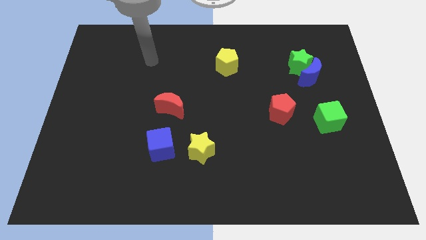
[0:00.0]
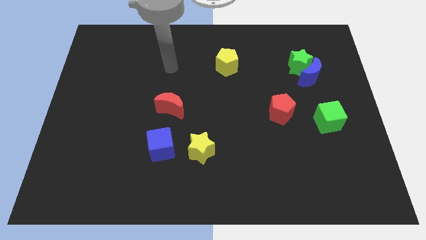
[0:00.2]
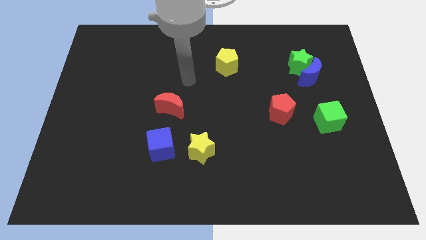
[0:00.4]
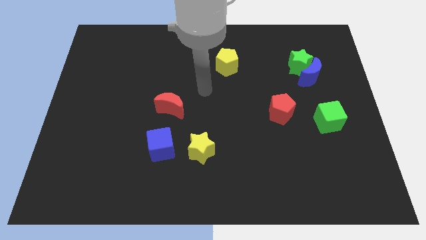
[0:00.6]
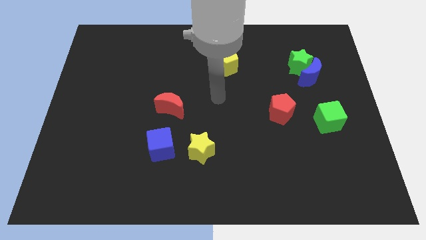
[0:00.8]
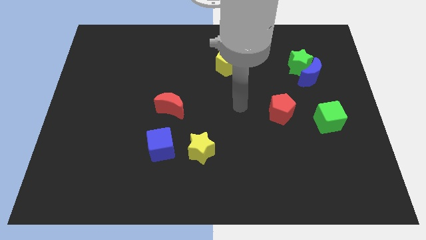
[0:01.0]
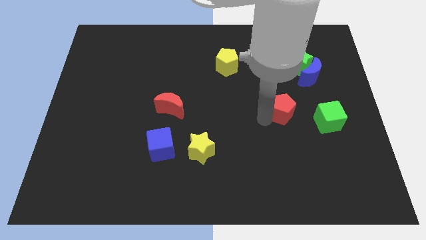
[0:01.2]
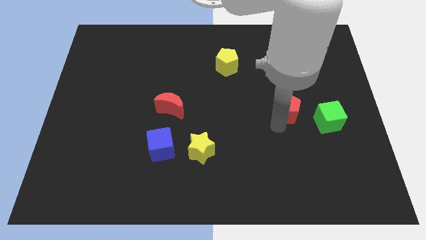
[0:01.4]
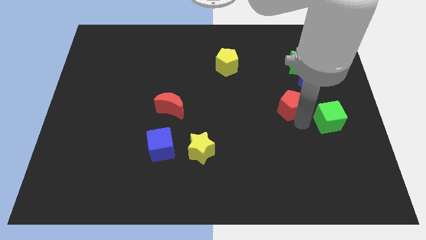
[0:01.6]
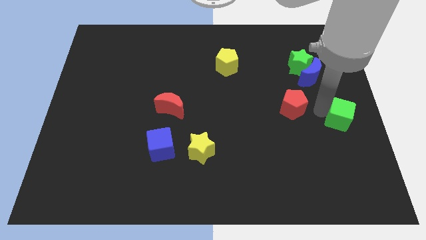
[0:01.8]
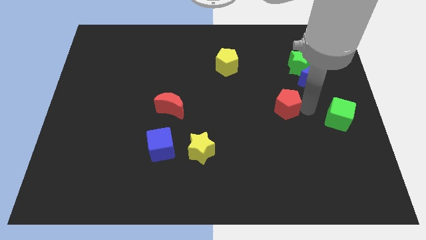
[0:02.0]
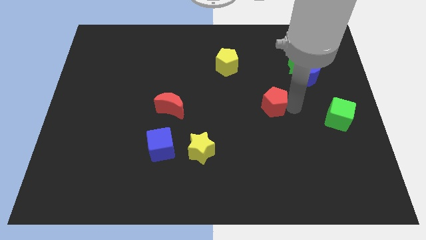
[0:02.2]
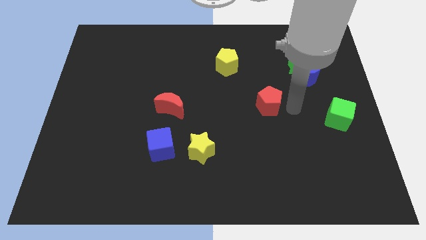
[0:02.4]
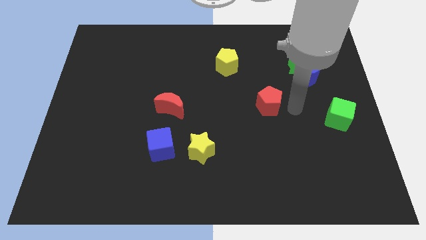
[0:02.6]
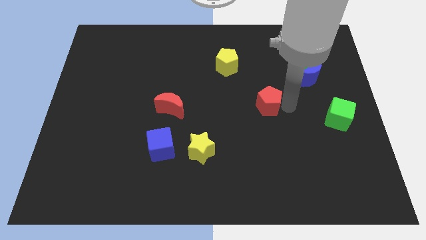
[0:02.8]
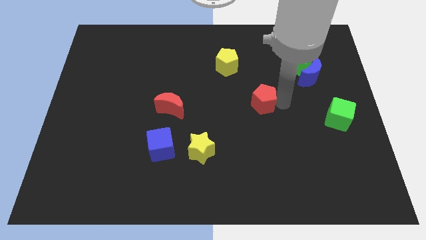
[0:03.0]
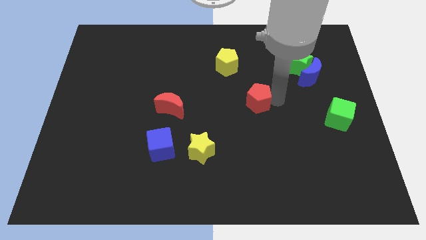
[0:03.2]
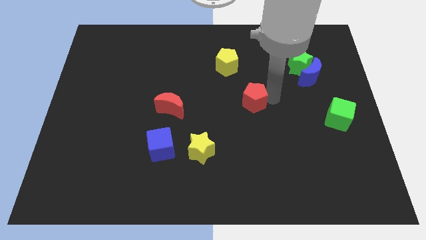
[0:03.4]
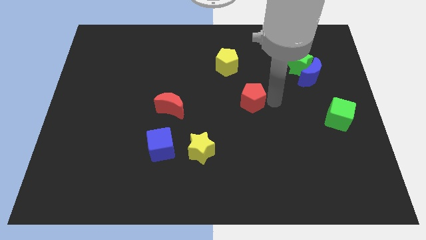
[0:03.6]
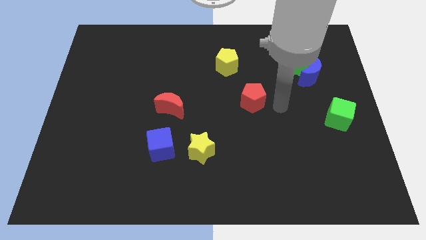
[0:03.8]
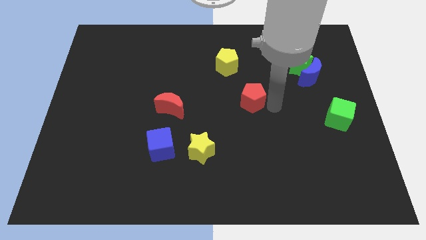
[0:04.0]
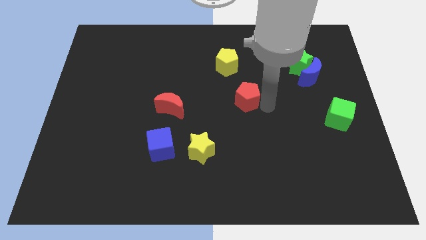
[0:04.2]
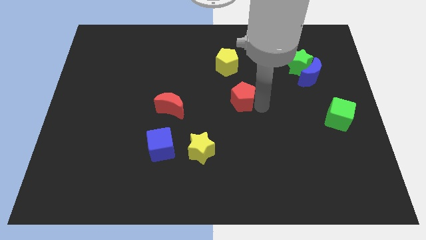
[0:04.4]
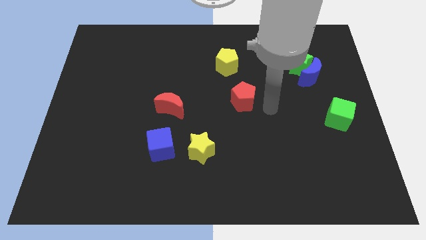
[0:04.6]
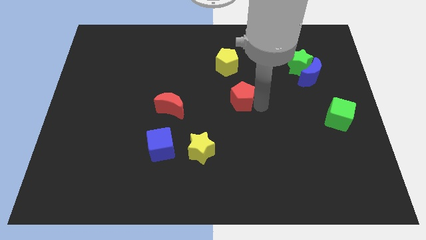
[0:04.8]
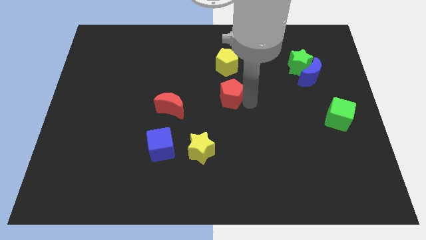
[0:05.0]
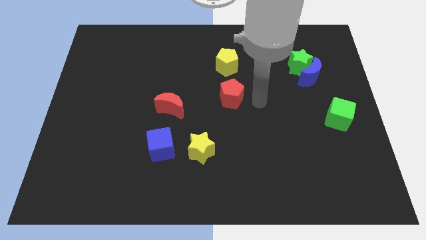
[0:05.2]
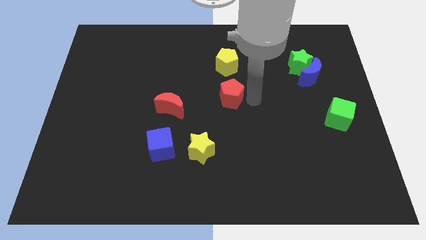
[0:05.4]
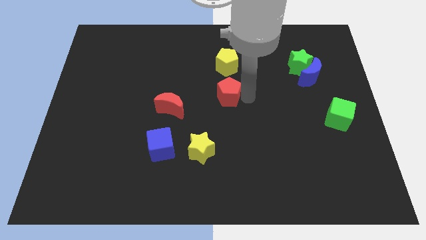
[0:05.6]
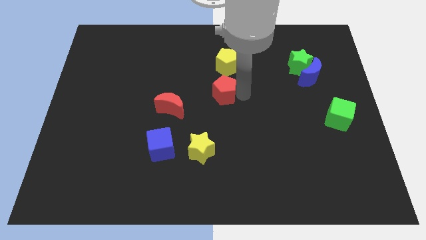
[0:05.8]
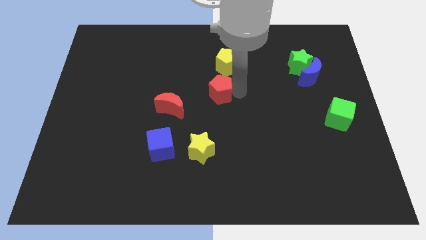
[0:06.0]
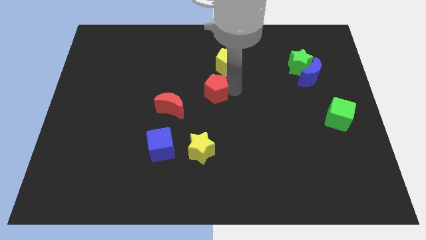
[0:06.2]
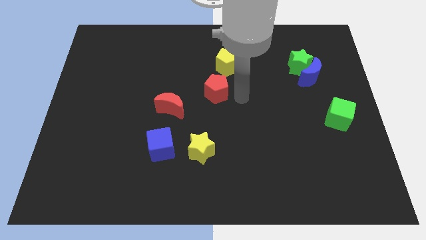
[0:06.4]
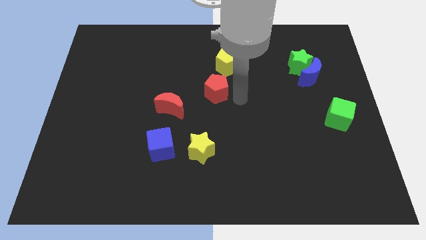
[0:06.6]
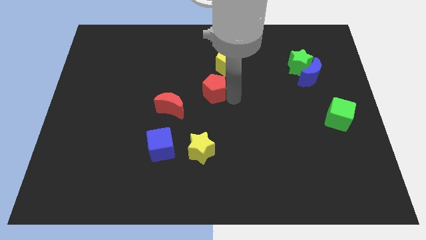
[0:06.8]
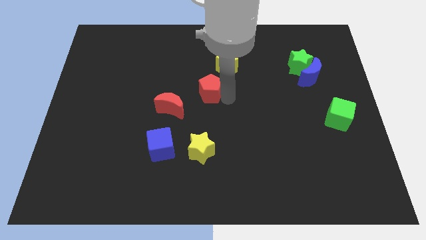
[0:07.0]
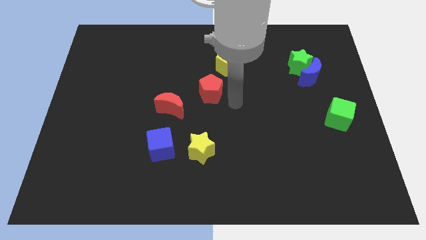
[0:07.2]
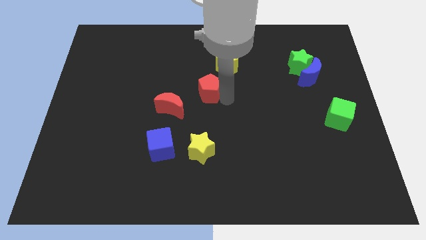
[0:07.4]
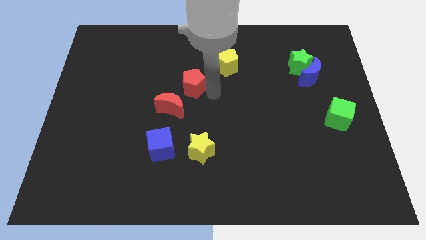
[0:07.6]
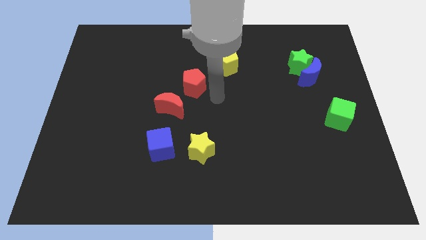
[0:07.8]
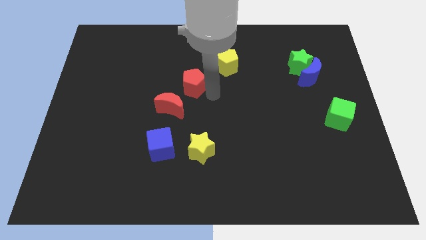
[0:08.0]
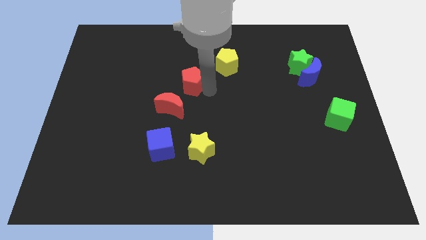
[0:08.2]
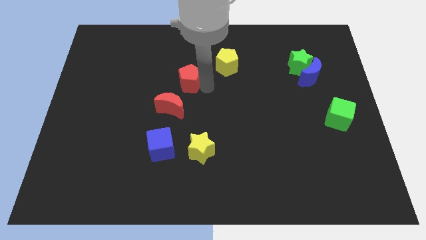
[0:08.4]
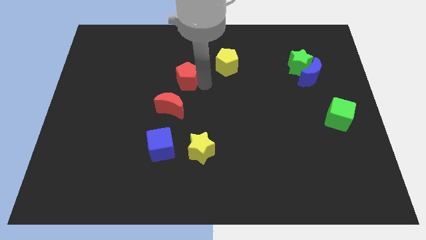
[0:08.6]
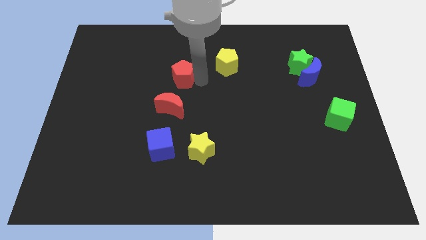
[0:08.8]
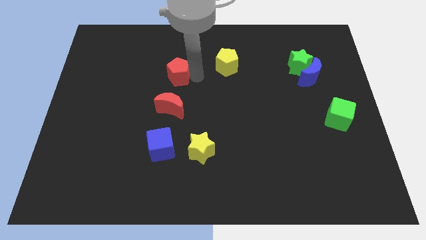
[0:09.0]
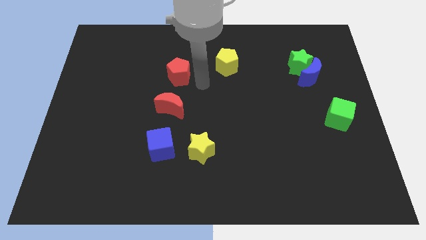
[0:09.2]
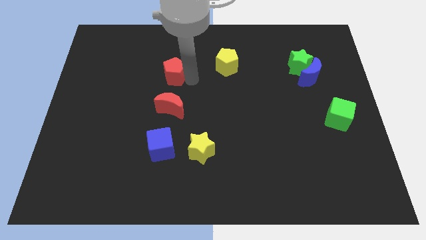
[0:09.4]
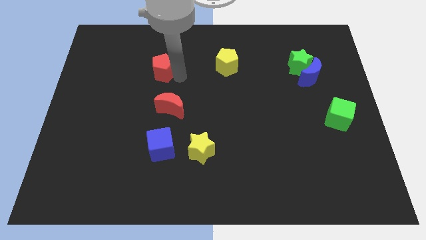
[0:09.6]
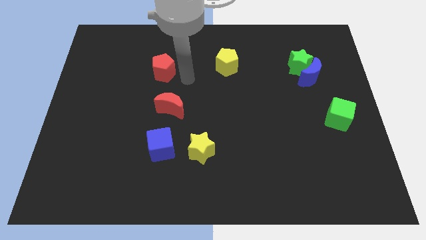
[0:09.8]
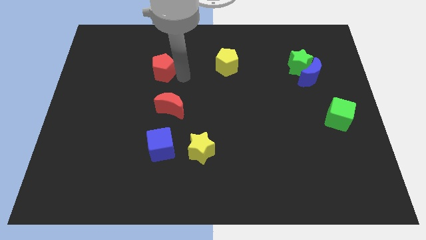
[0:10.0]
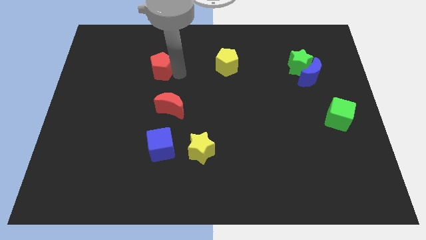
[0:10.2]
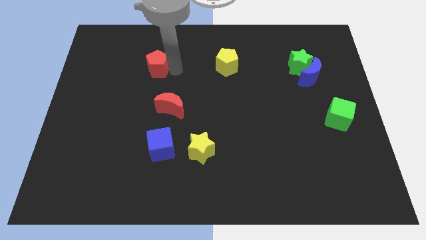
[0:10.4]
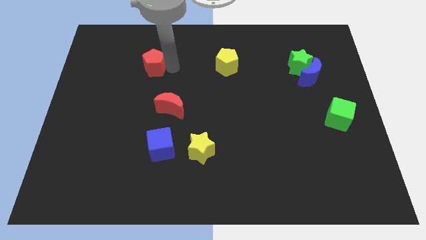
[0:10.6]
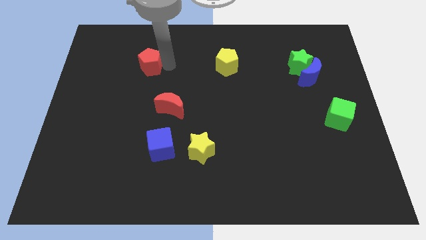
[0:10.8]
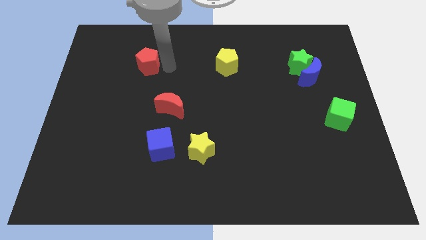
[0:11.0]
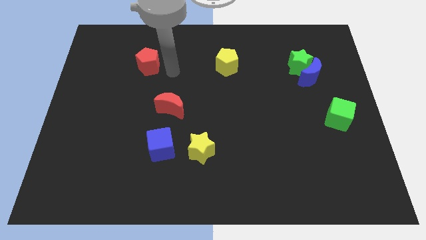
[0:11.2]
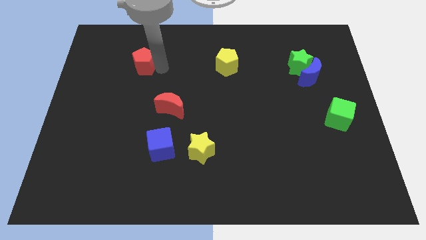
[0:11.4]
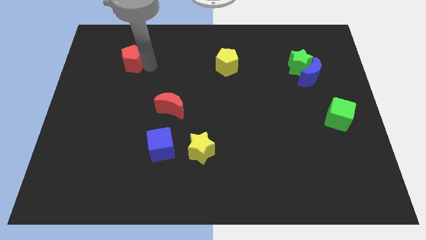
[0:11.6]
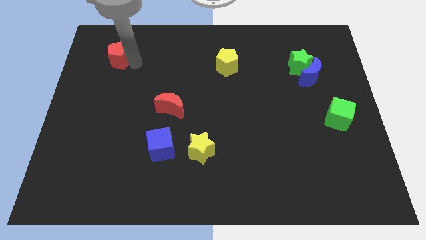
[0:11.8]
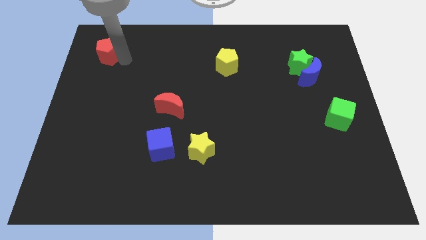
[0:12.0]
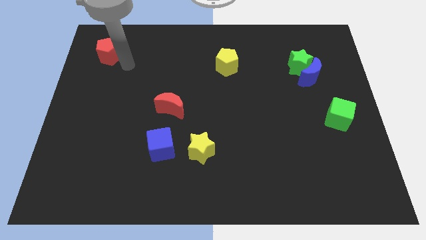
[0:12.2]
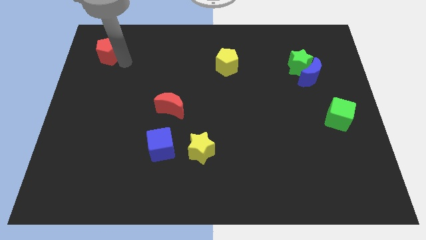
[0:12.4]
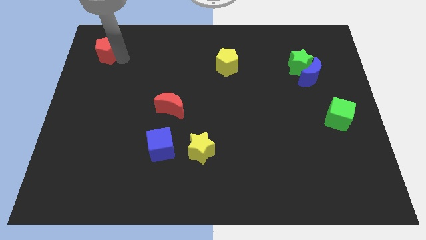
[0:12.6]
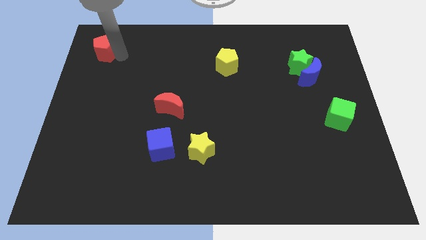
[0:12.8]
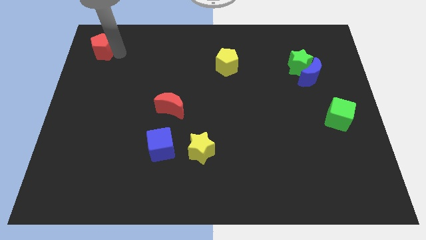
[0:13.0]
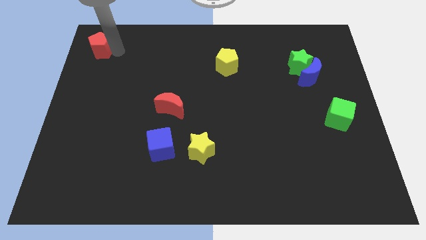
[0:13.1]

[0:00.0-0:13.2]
move the red pentagon to the upper left corner
